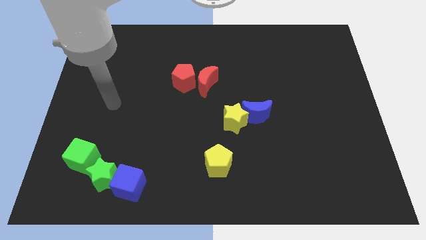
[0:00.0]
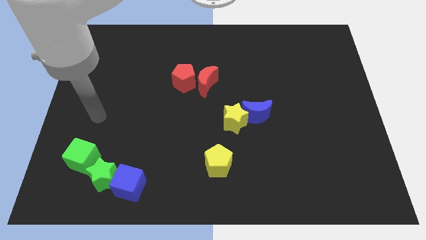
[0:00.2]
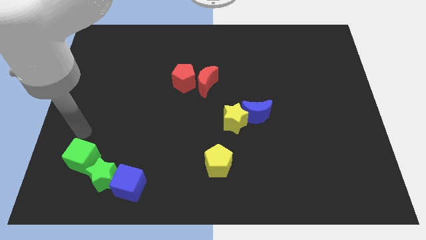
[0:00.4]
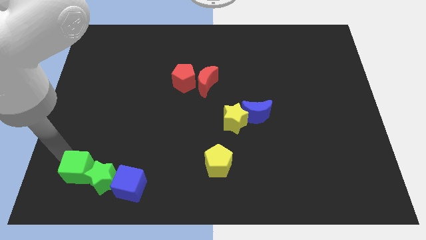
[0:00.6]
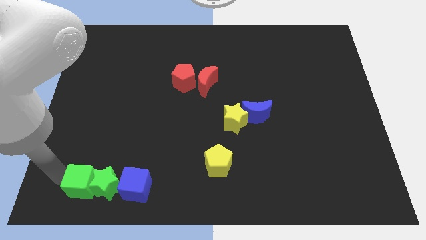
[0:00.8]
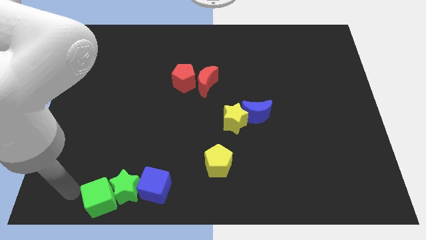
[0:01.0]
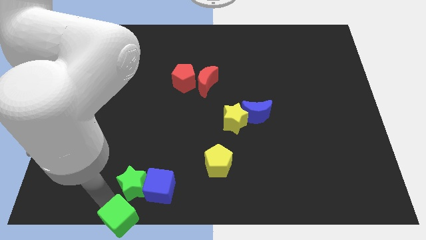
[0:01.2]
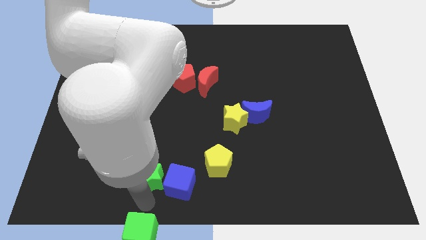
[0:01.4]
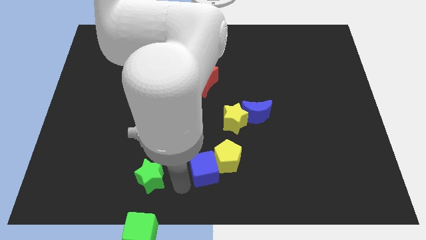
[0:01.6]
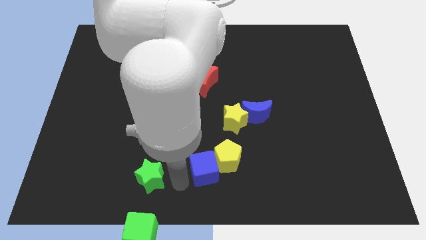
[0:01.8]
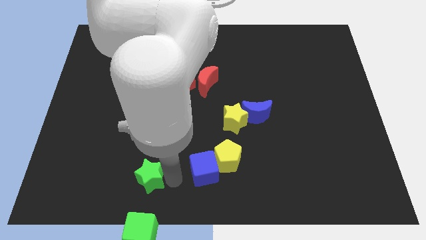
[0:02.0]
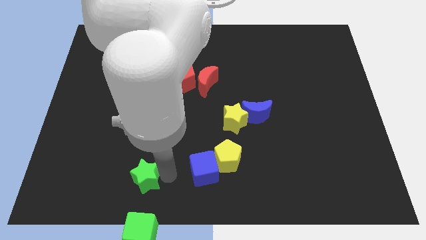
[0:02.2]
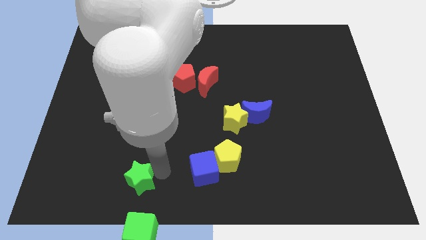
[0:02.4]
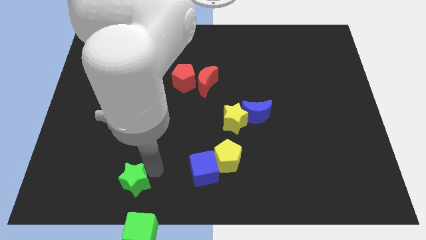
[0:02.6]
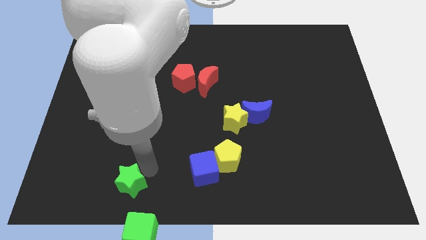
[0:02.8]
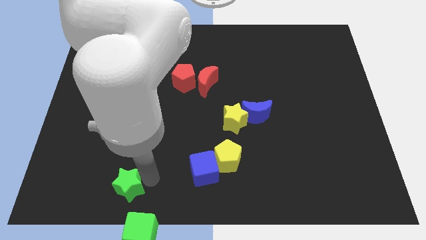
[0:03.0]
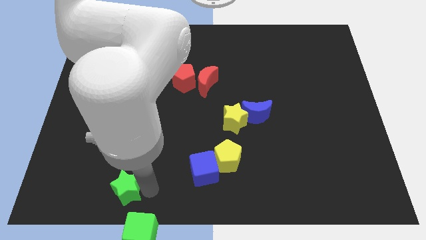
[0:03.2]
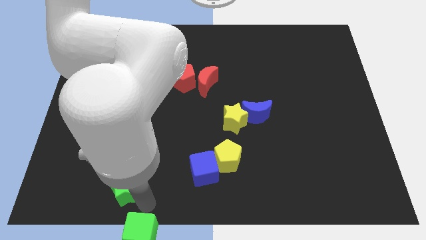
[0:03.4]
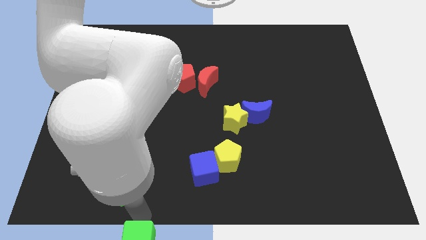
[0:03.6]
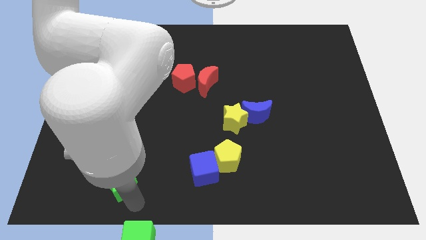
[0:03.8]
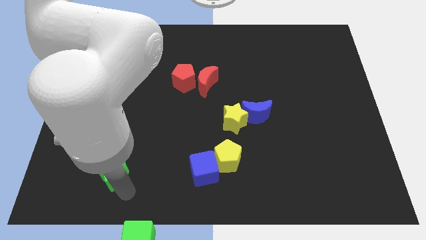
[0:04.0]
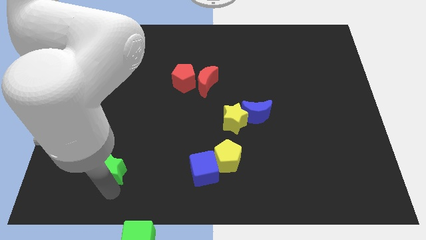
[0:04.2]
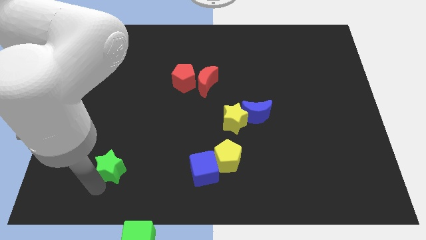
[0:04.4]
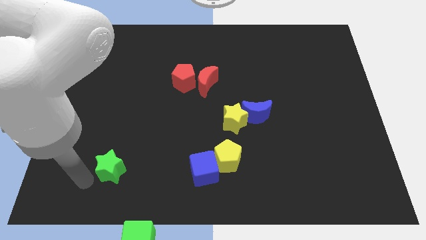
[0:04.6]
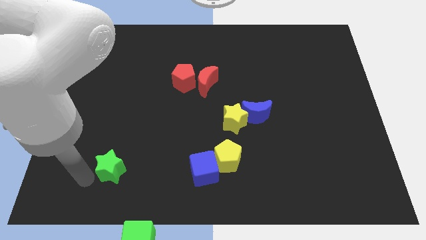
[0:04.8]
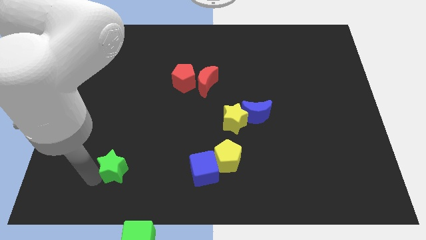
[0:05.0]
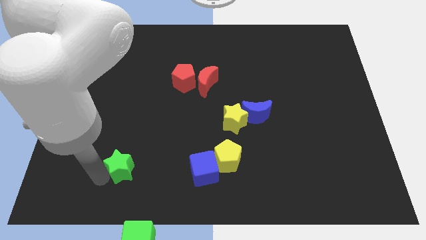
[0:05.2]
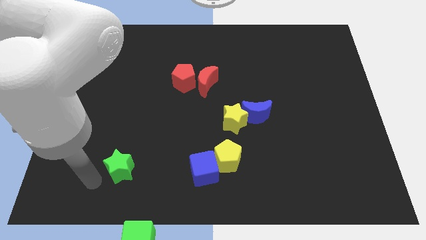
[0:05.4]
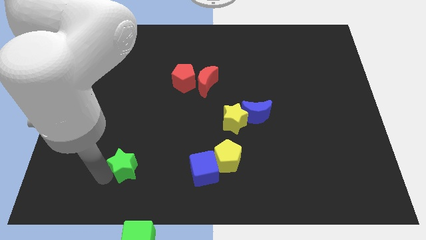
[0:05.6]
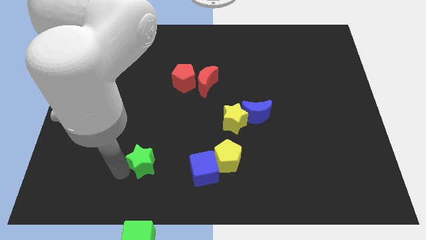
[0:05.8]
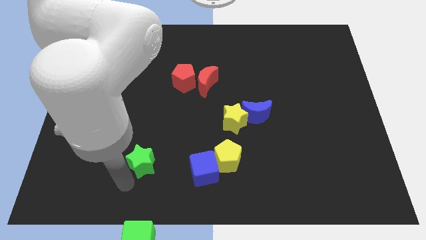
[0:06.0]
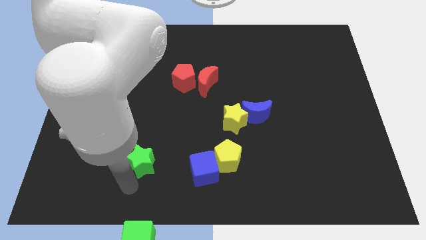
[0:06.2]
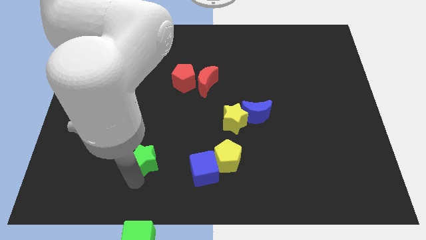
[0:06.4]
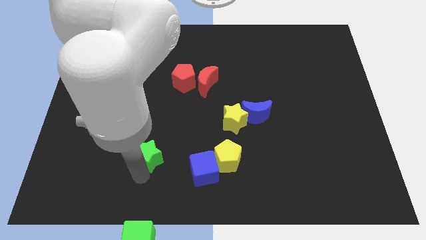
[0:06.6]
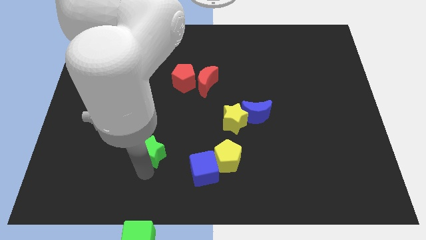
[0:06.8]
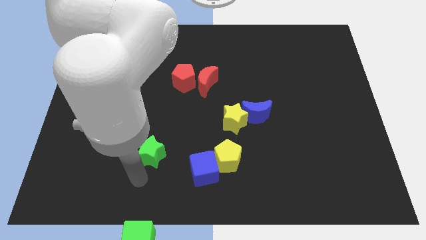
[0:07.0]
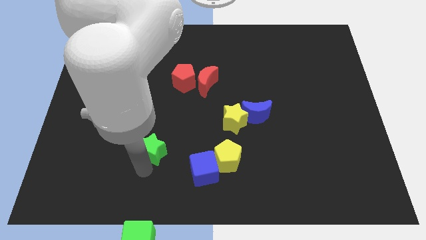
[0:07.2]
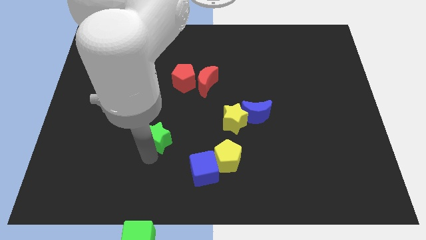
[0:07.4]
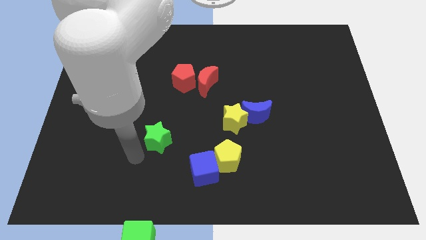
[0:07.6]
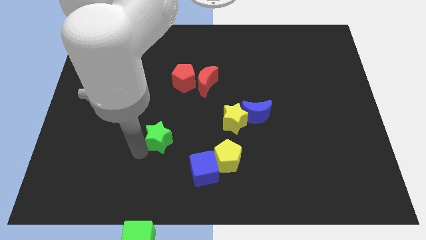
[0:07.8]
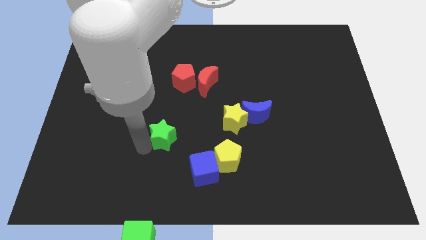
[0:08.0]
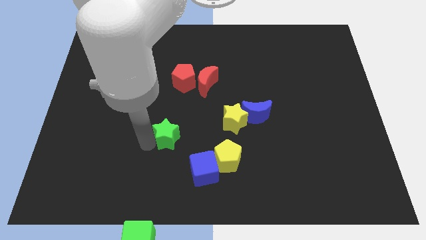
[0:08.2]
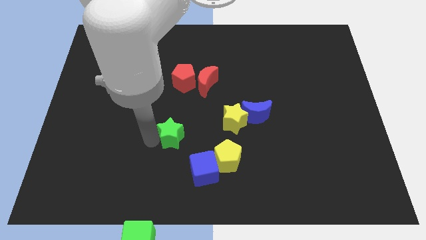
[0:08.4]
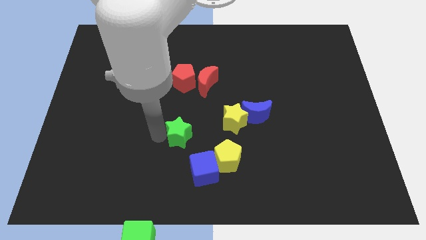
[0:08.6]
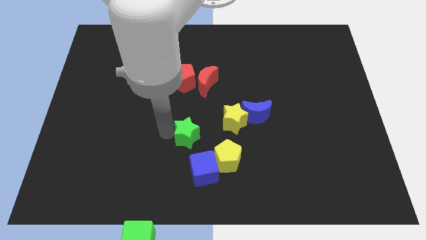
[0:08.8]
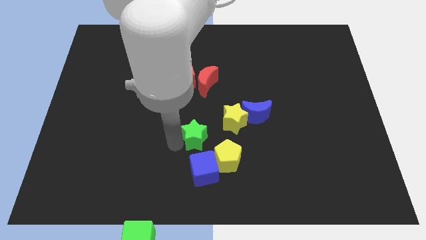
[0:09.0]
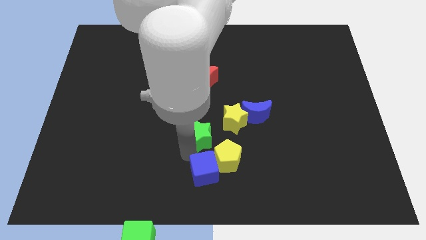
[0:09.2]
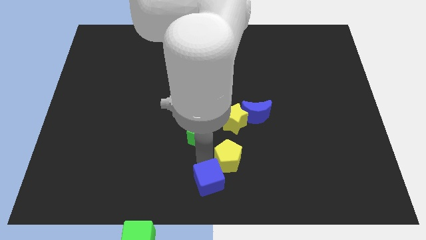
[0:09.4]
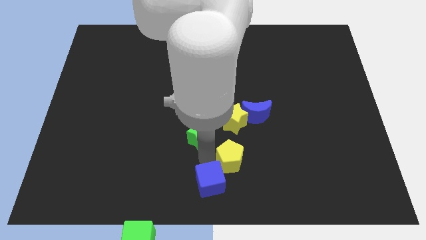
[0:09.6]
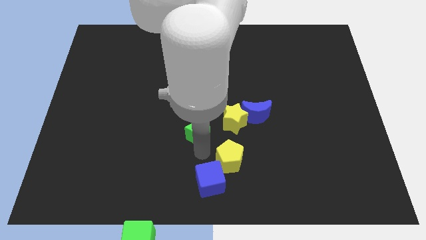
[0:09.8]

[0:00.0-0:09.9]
slide the green star up and to the right

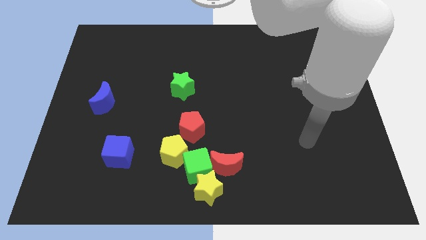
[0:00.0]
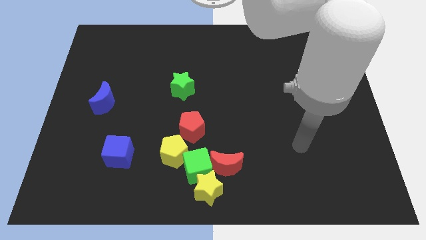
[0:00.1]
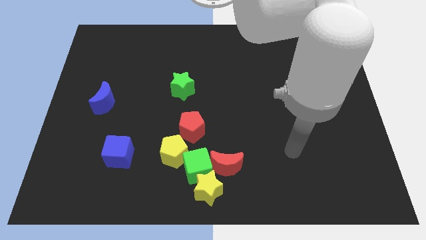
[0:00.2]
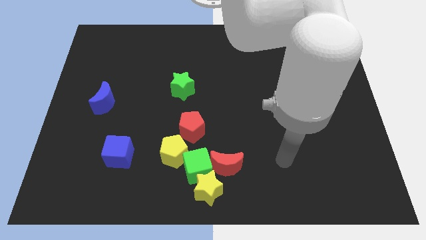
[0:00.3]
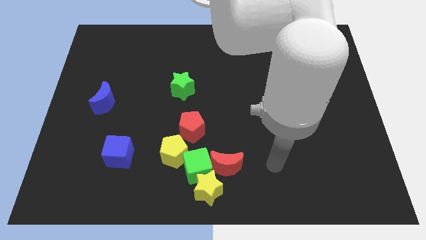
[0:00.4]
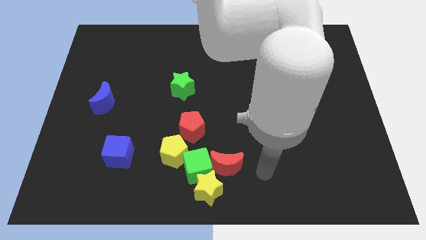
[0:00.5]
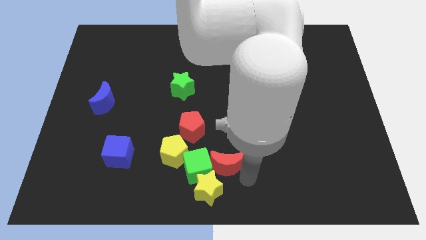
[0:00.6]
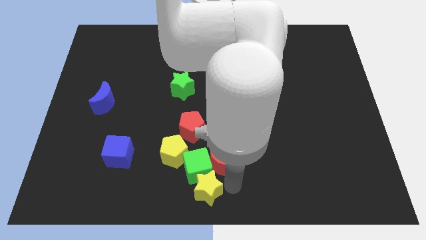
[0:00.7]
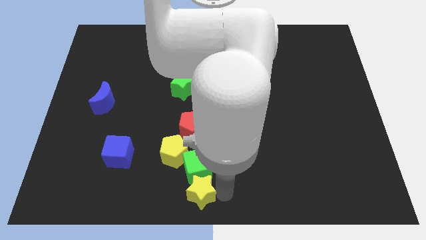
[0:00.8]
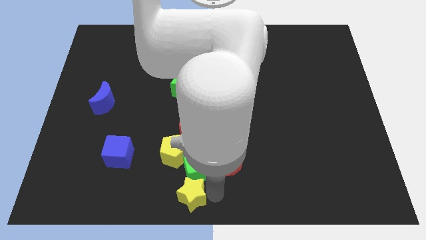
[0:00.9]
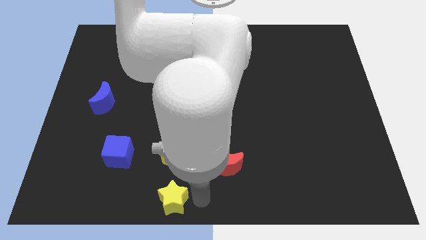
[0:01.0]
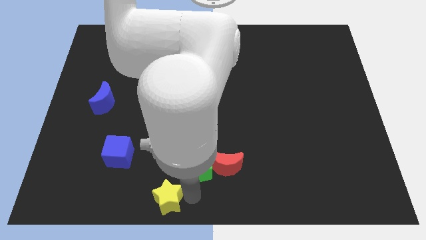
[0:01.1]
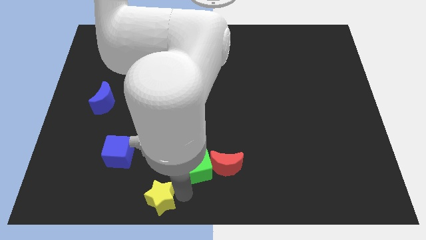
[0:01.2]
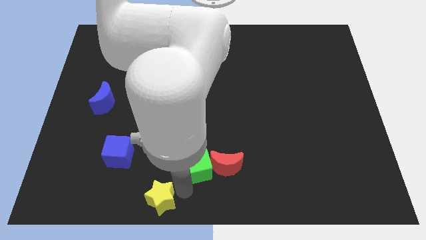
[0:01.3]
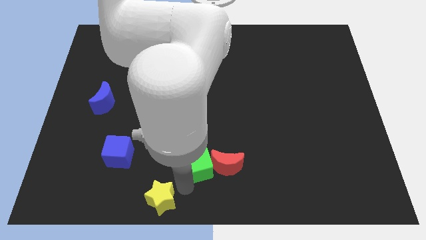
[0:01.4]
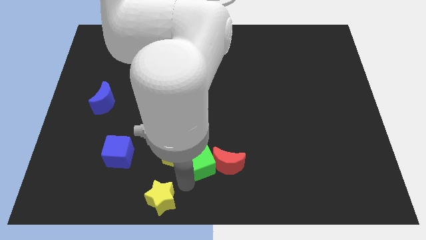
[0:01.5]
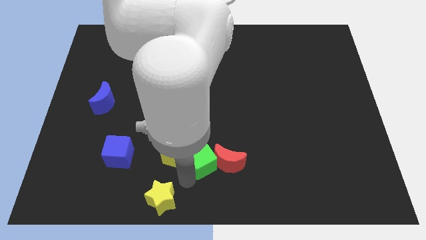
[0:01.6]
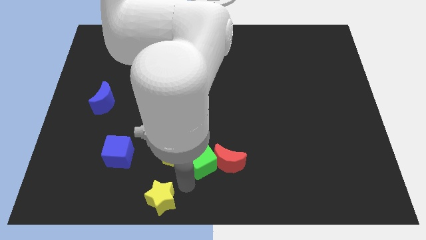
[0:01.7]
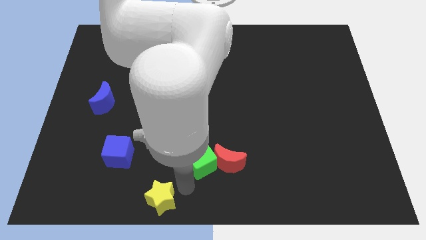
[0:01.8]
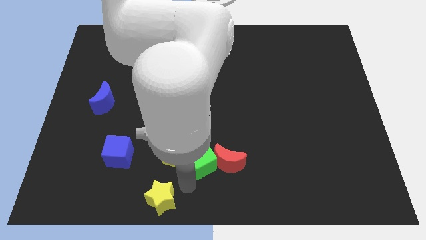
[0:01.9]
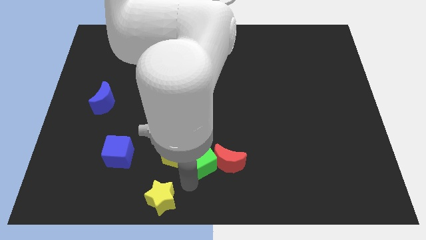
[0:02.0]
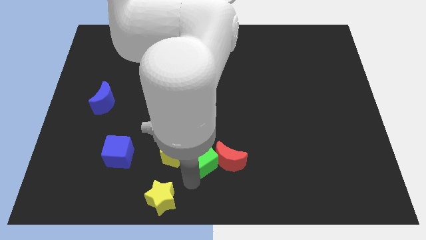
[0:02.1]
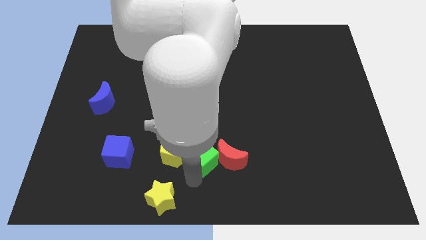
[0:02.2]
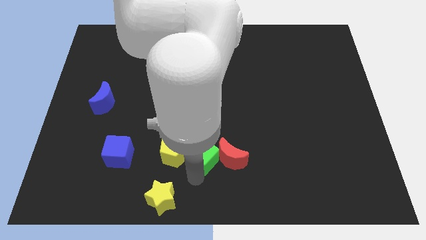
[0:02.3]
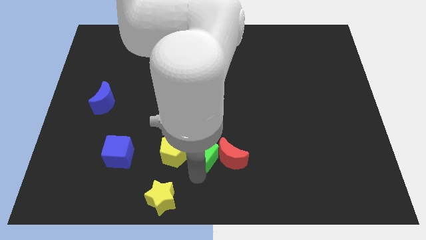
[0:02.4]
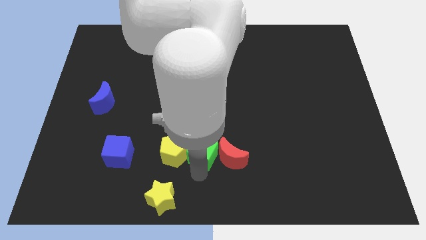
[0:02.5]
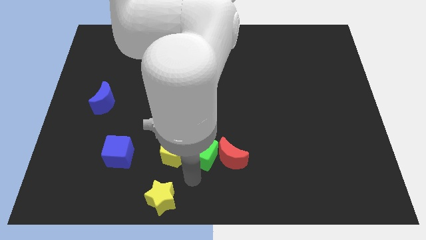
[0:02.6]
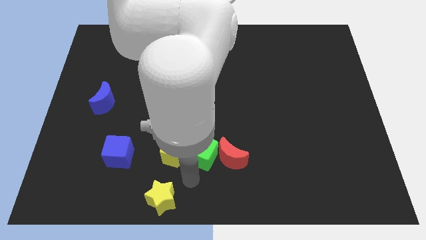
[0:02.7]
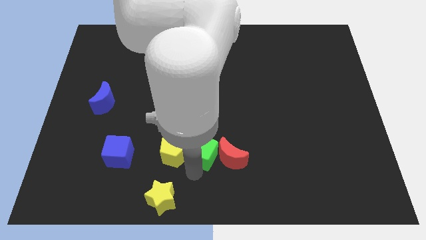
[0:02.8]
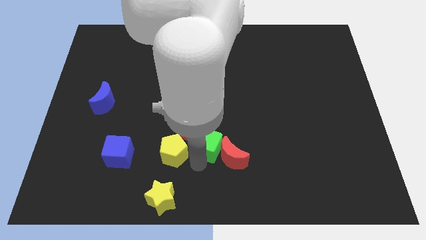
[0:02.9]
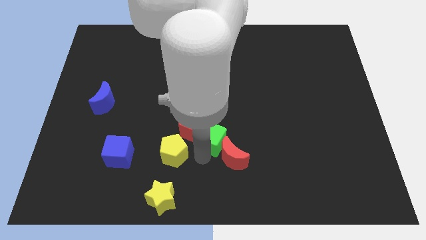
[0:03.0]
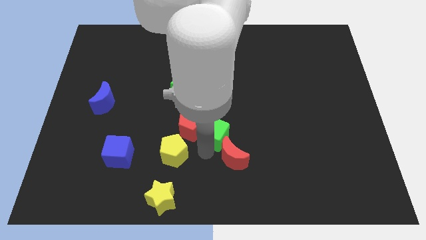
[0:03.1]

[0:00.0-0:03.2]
slide the green cube slightly upwards
